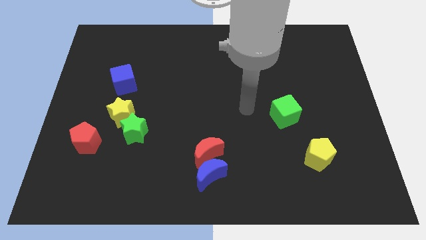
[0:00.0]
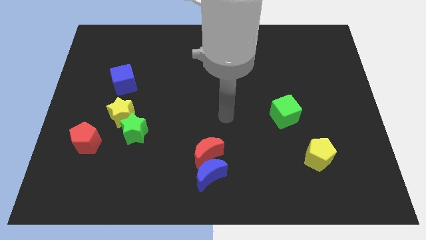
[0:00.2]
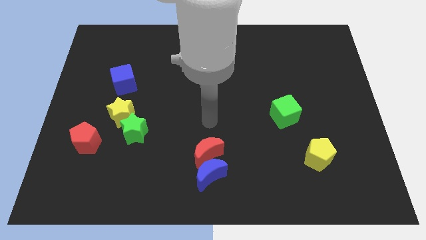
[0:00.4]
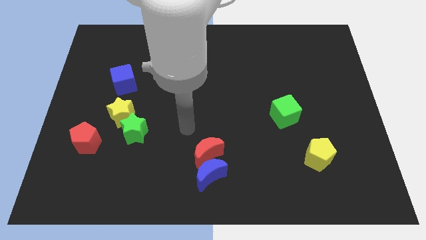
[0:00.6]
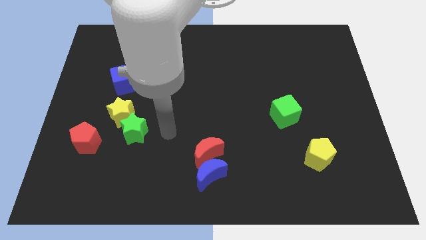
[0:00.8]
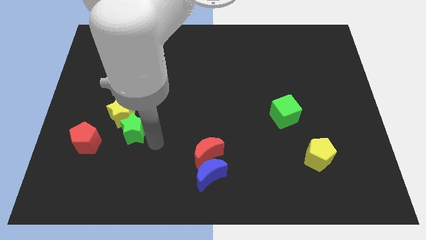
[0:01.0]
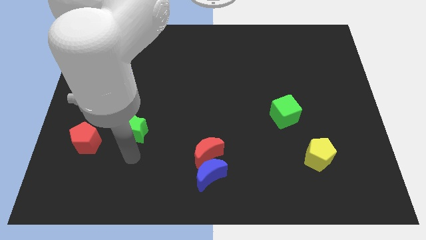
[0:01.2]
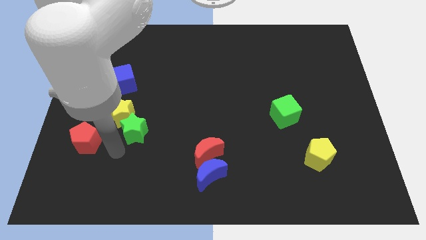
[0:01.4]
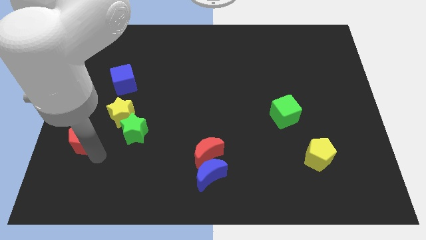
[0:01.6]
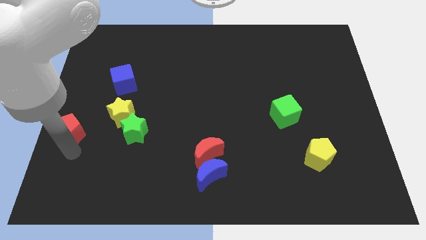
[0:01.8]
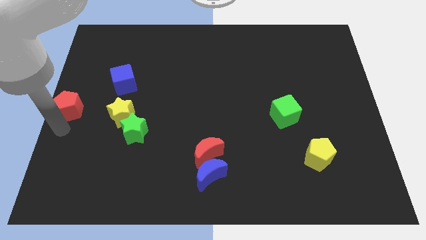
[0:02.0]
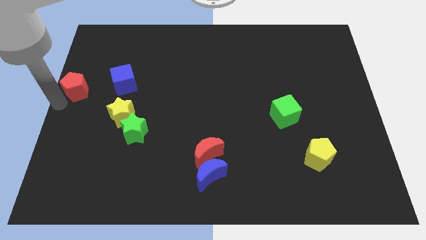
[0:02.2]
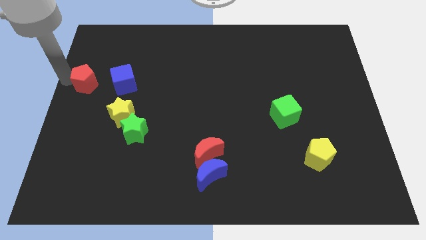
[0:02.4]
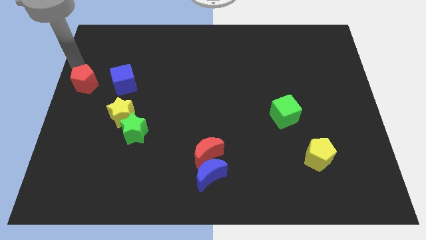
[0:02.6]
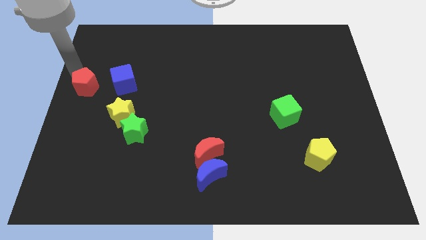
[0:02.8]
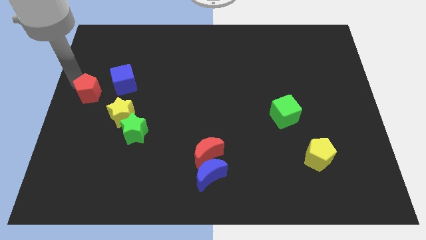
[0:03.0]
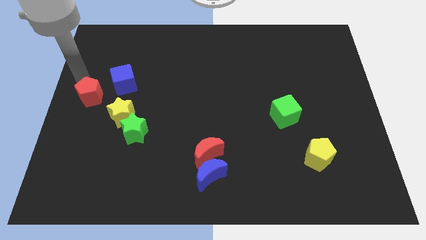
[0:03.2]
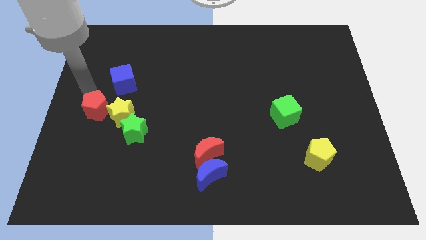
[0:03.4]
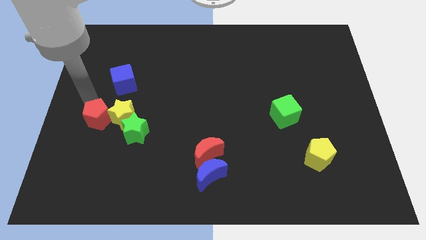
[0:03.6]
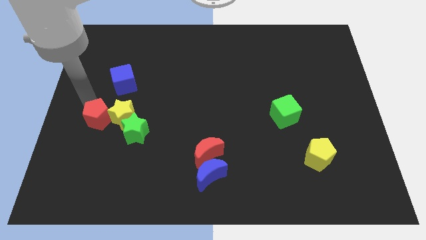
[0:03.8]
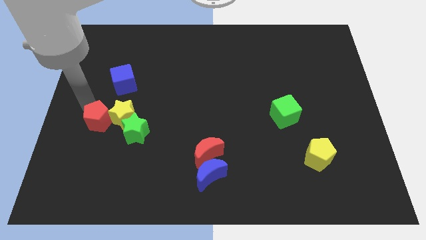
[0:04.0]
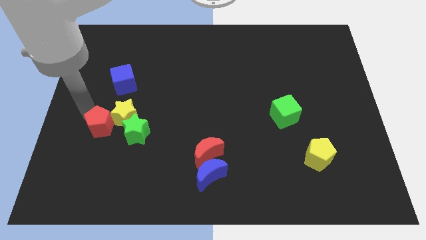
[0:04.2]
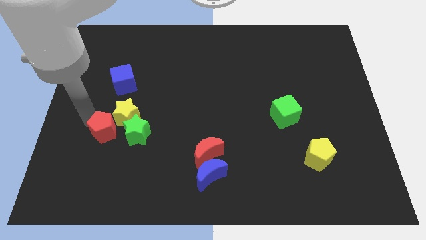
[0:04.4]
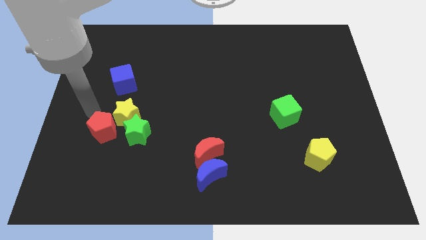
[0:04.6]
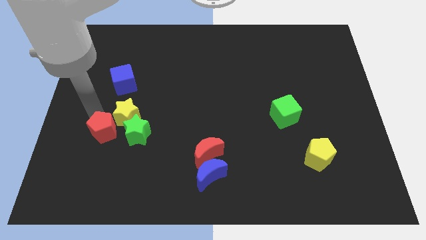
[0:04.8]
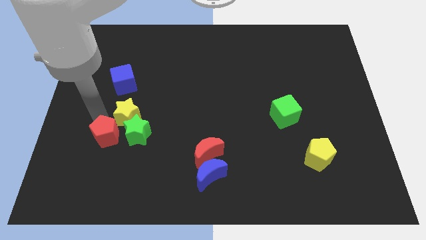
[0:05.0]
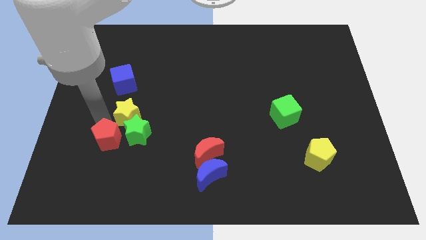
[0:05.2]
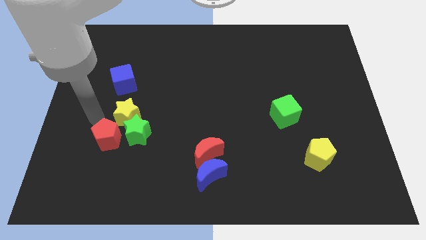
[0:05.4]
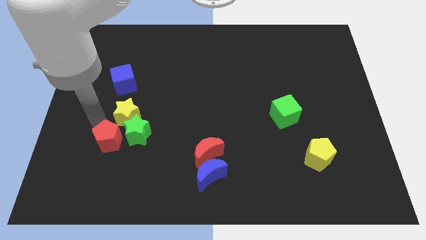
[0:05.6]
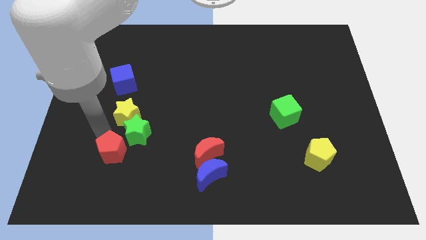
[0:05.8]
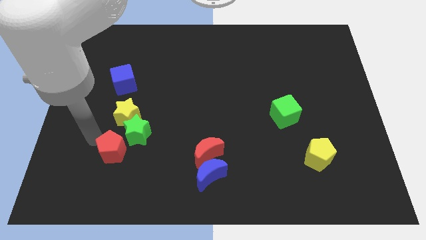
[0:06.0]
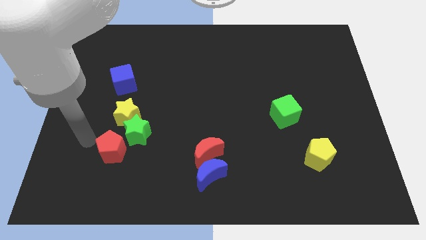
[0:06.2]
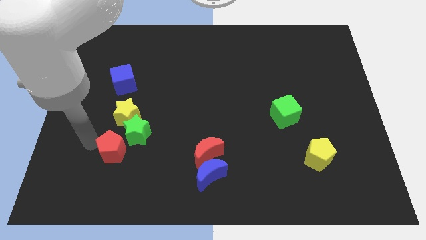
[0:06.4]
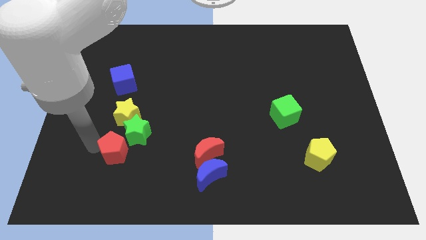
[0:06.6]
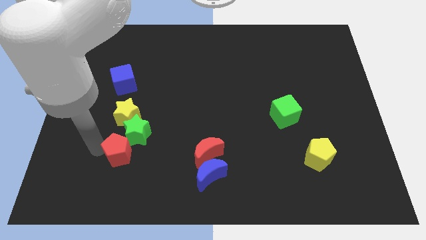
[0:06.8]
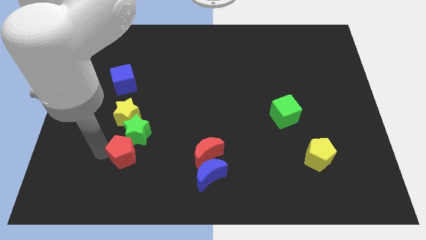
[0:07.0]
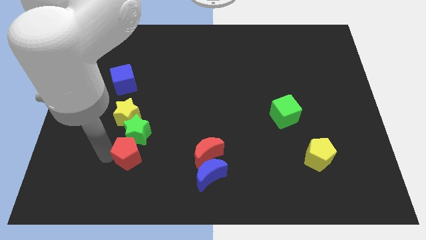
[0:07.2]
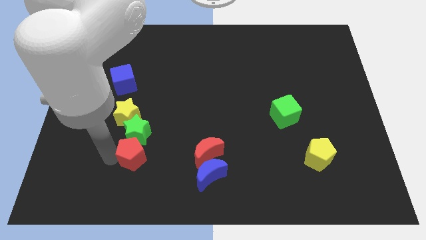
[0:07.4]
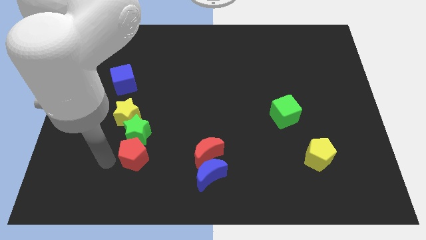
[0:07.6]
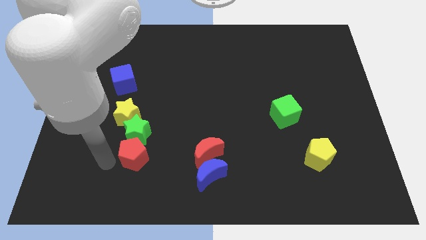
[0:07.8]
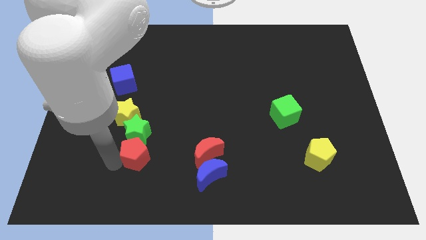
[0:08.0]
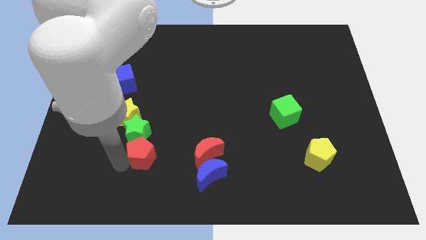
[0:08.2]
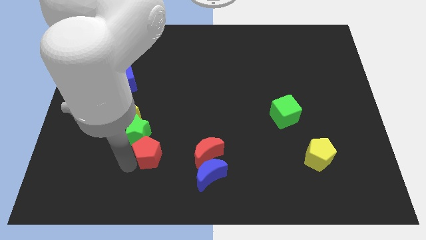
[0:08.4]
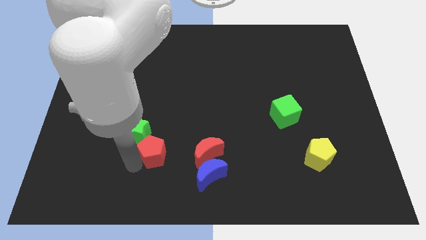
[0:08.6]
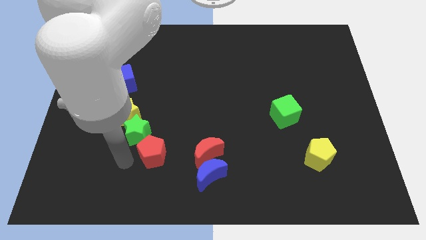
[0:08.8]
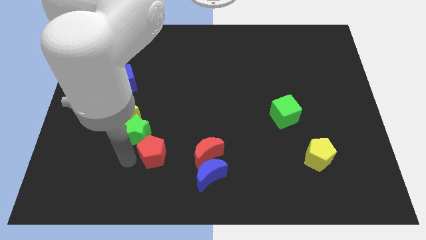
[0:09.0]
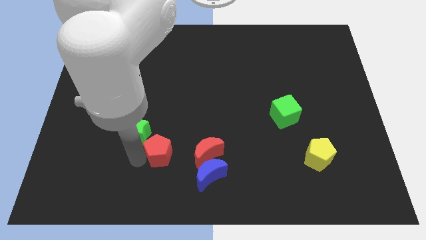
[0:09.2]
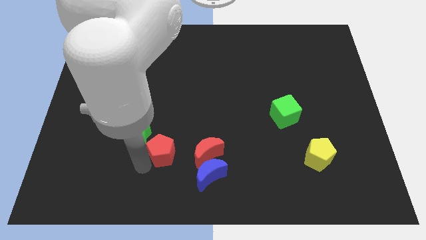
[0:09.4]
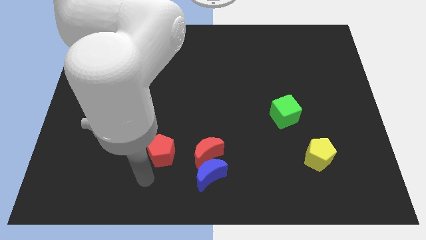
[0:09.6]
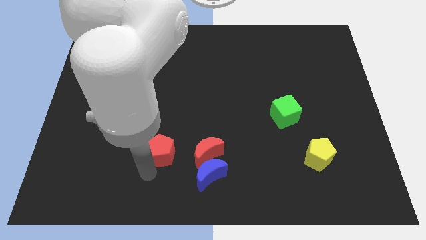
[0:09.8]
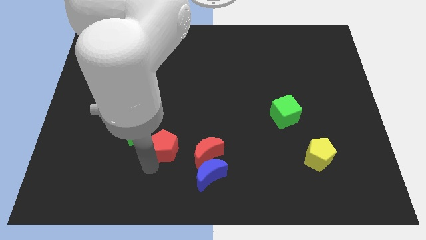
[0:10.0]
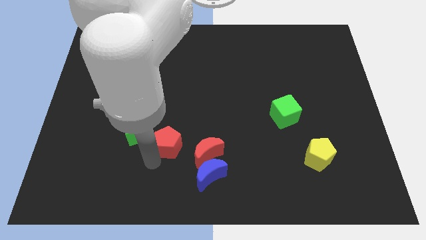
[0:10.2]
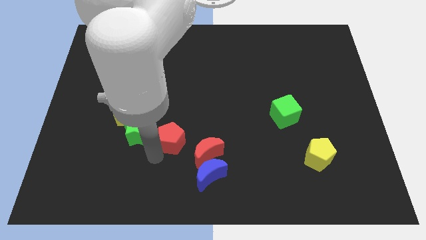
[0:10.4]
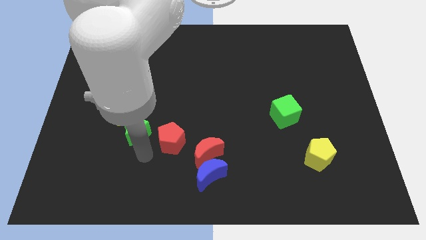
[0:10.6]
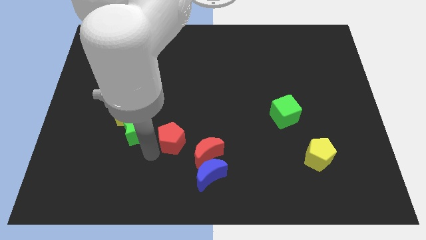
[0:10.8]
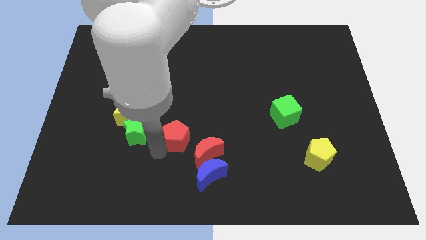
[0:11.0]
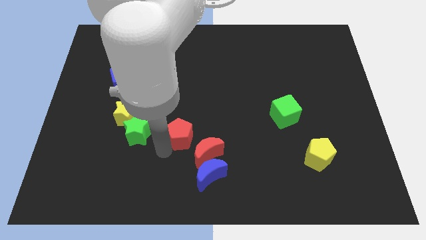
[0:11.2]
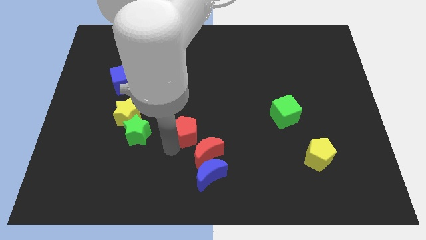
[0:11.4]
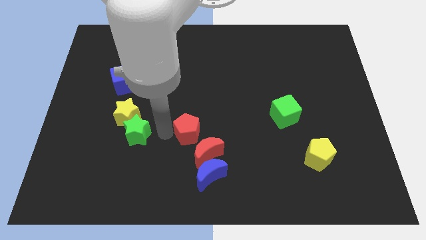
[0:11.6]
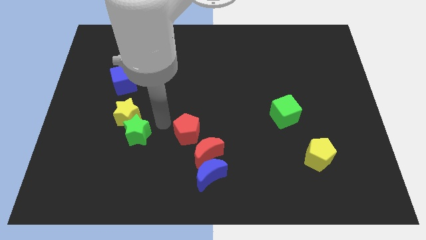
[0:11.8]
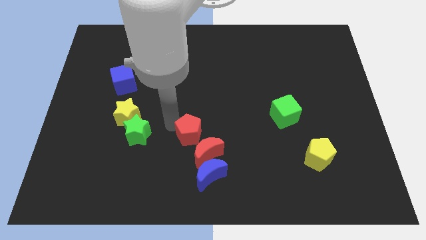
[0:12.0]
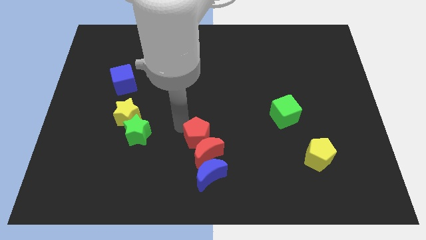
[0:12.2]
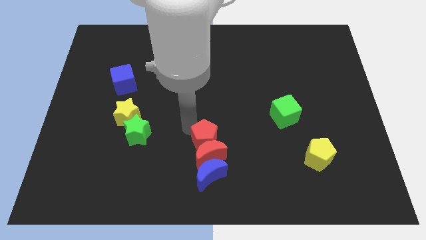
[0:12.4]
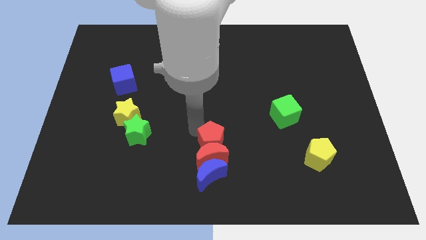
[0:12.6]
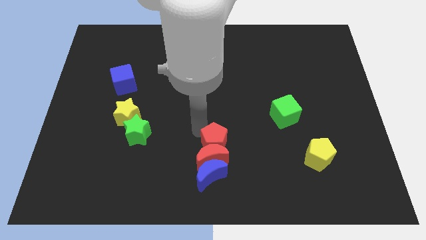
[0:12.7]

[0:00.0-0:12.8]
slide the red pentagon to the top right of the blue moon

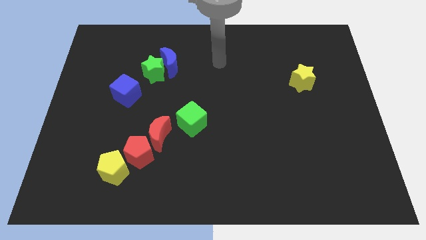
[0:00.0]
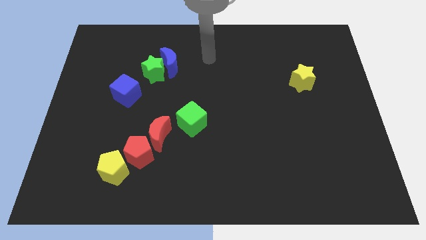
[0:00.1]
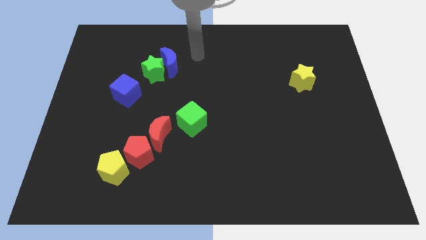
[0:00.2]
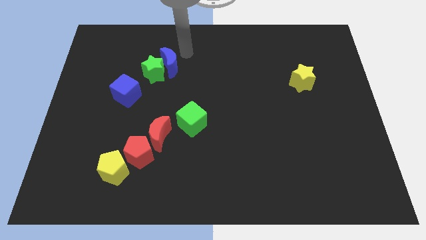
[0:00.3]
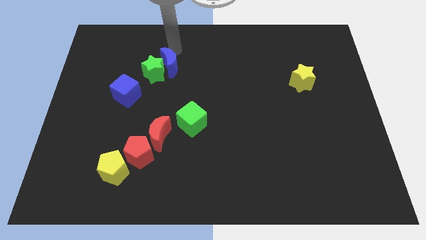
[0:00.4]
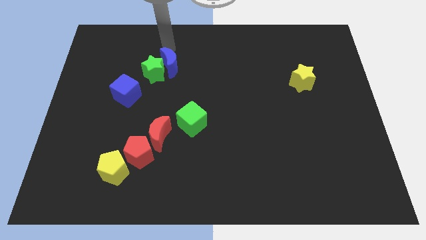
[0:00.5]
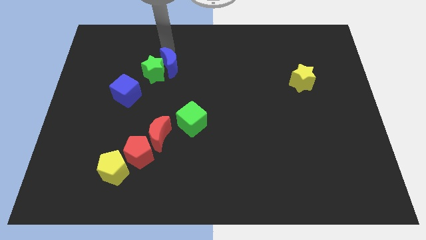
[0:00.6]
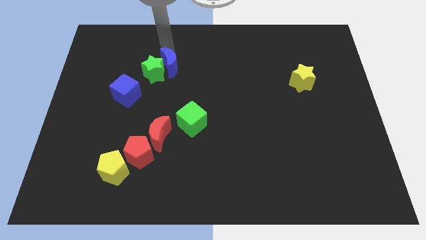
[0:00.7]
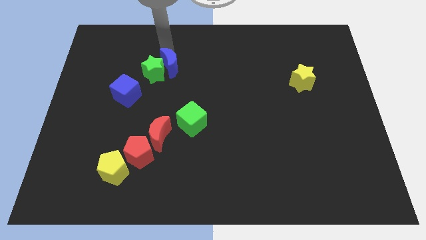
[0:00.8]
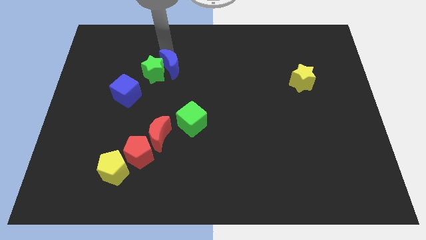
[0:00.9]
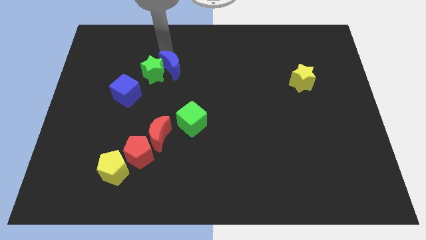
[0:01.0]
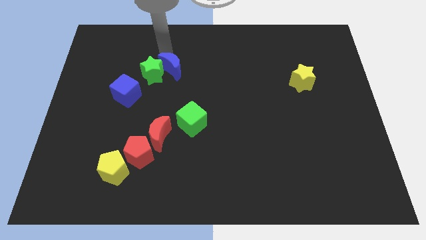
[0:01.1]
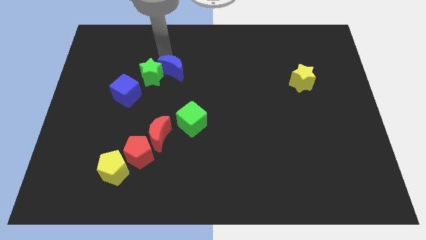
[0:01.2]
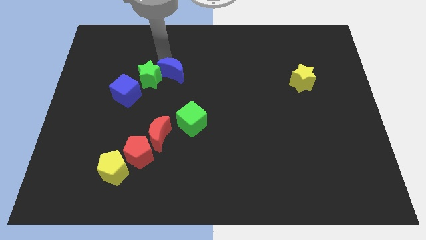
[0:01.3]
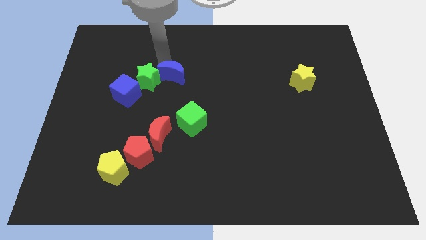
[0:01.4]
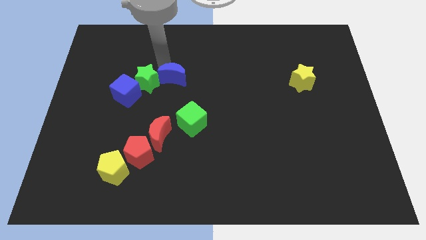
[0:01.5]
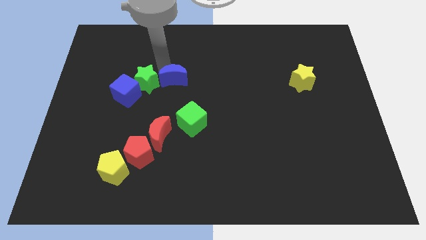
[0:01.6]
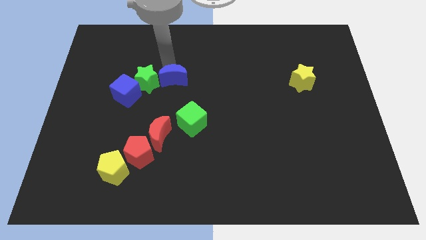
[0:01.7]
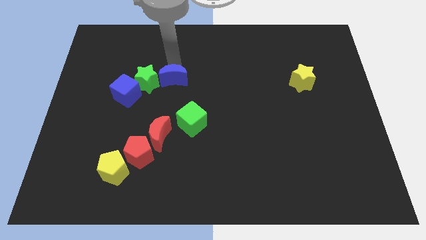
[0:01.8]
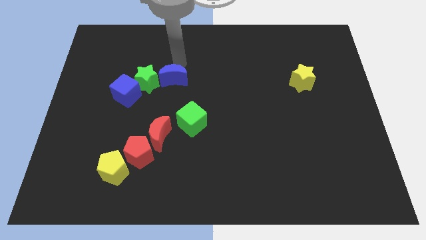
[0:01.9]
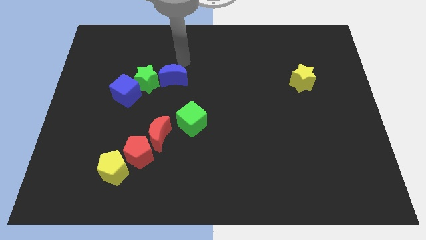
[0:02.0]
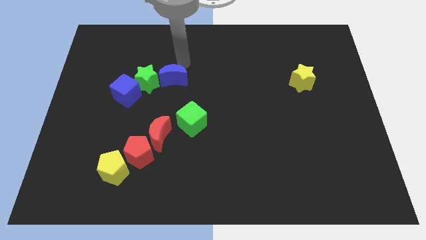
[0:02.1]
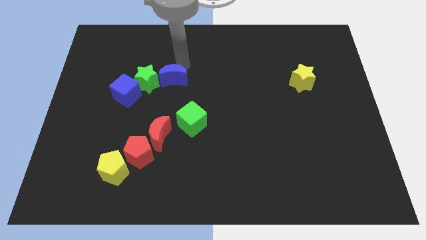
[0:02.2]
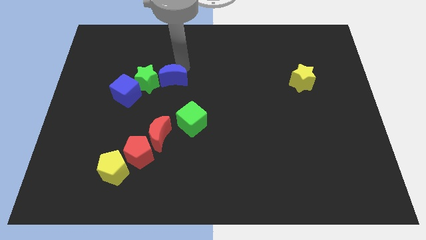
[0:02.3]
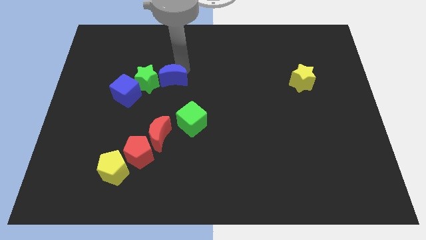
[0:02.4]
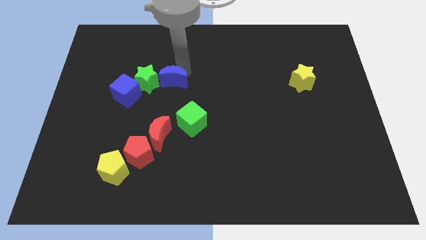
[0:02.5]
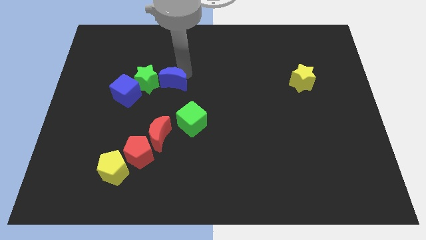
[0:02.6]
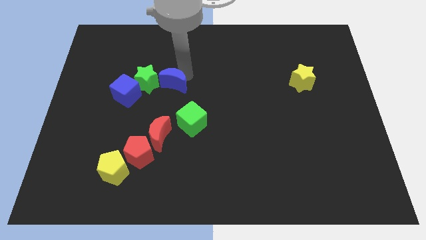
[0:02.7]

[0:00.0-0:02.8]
slide the blue moon to the top side of the red moon
